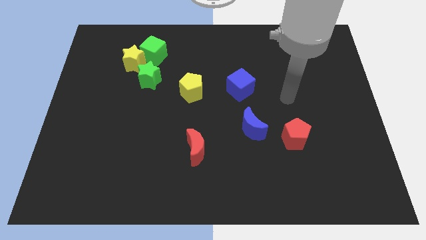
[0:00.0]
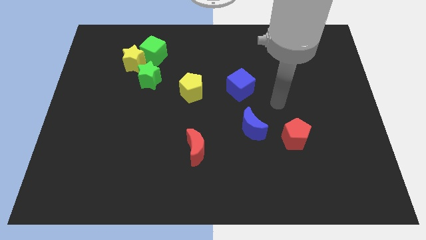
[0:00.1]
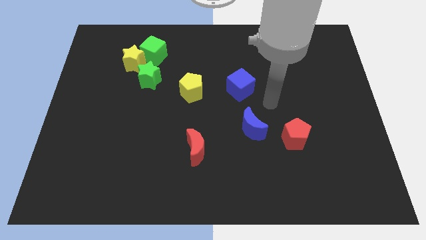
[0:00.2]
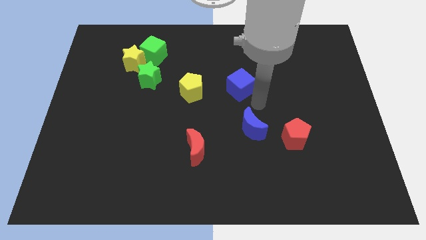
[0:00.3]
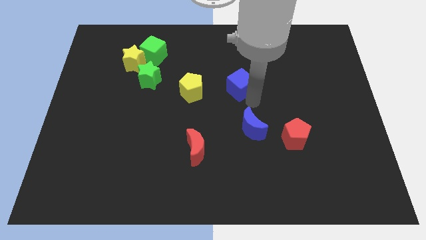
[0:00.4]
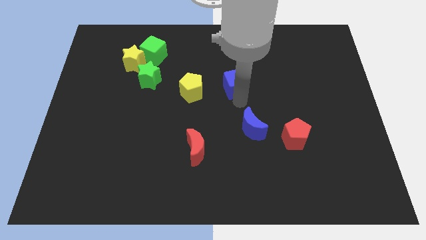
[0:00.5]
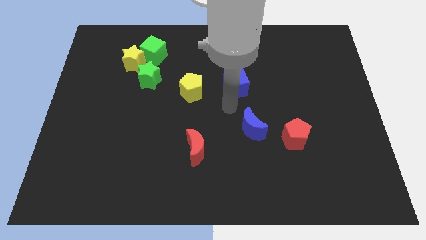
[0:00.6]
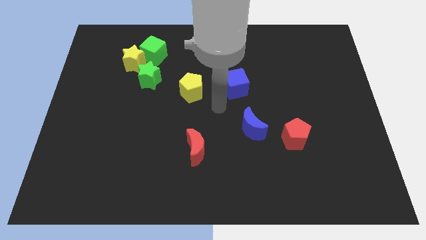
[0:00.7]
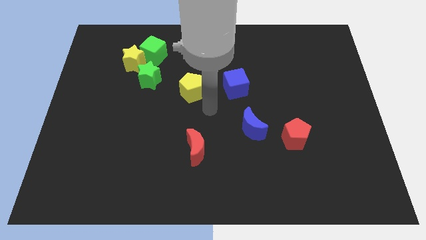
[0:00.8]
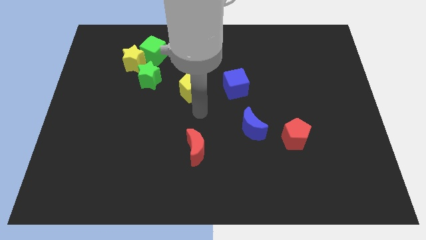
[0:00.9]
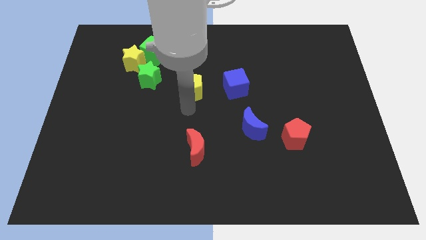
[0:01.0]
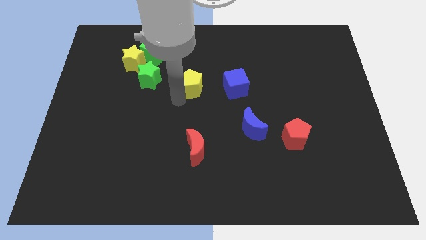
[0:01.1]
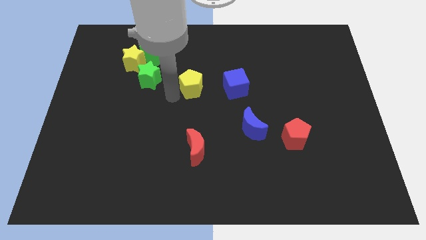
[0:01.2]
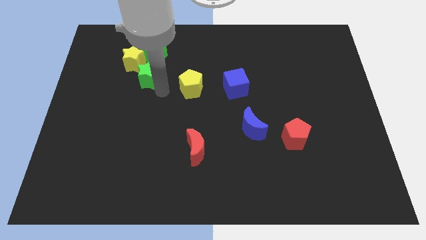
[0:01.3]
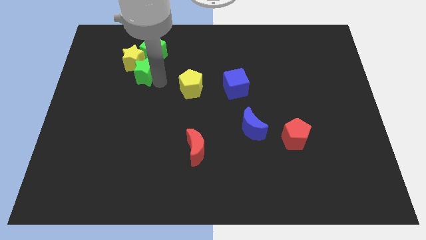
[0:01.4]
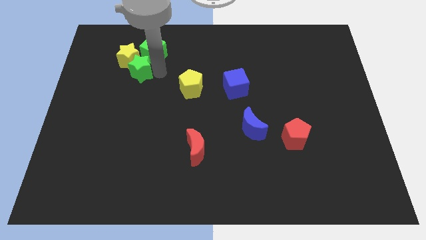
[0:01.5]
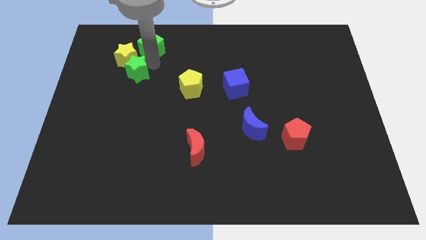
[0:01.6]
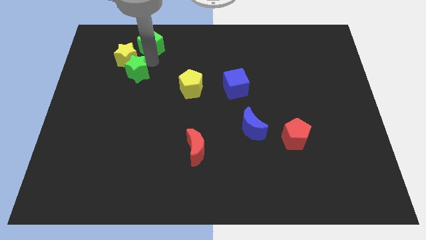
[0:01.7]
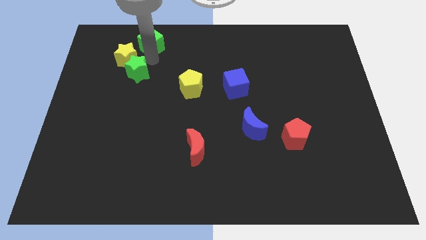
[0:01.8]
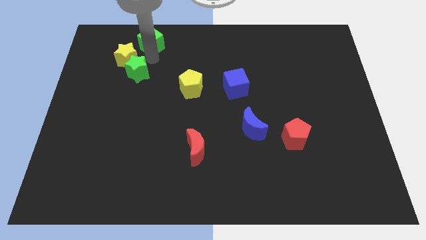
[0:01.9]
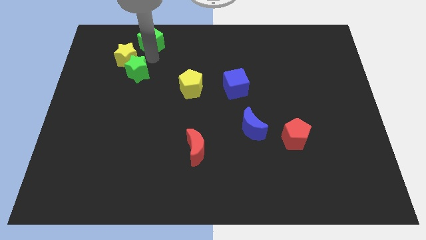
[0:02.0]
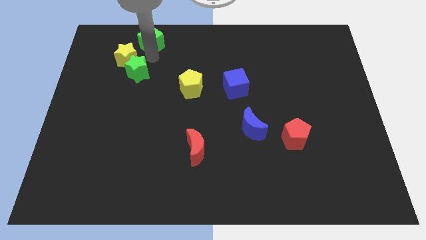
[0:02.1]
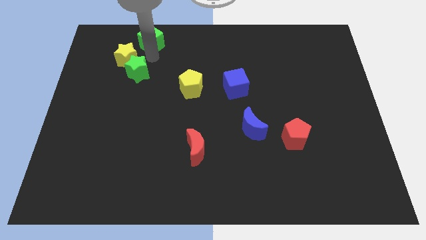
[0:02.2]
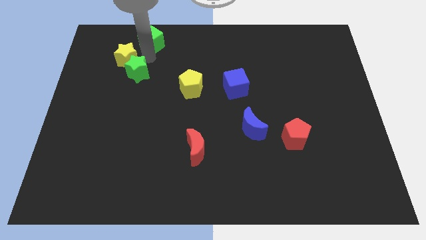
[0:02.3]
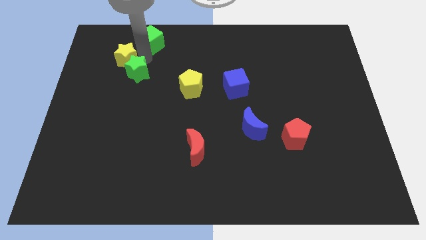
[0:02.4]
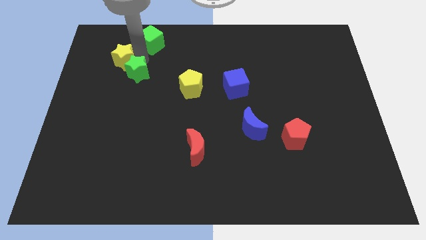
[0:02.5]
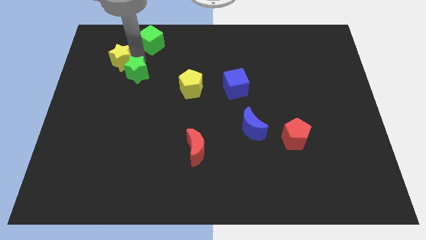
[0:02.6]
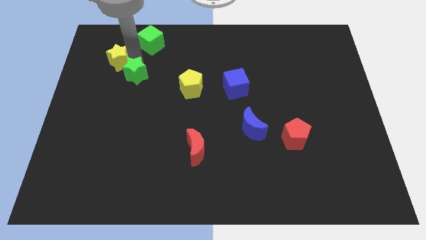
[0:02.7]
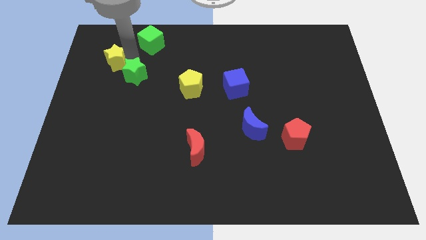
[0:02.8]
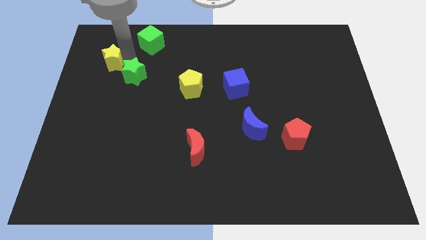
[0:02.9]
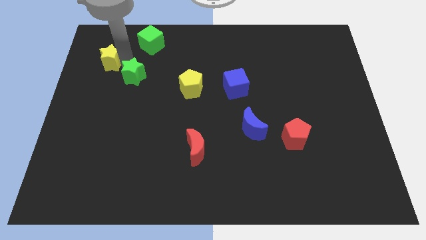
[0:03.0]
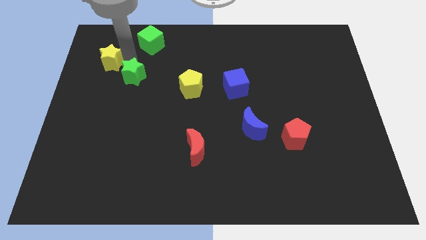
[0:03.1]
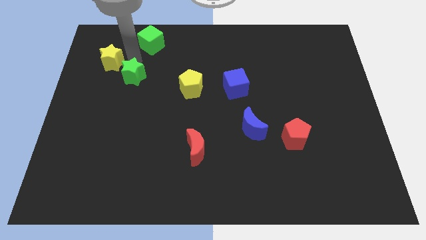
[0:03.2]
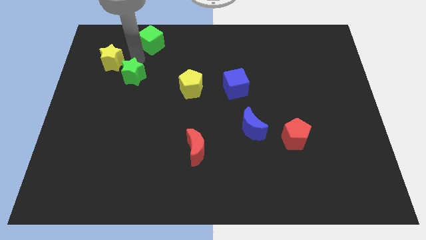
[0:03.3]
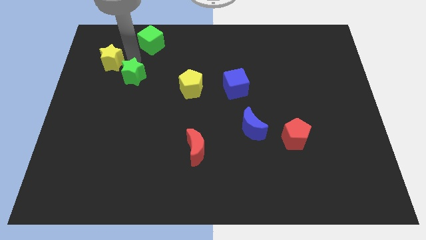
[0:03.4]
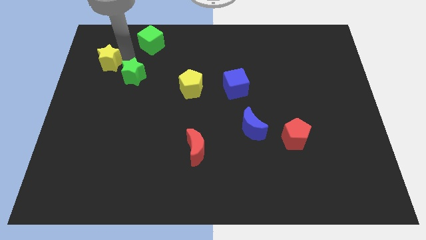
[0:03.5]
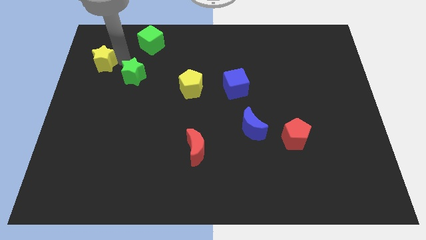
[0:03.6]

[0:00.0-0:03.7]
separate the yellow star from the green cube and green star

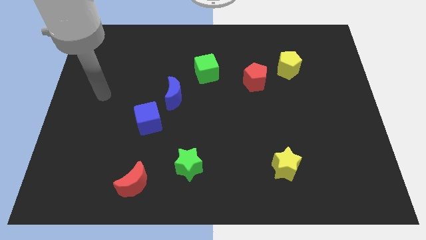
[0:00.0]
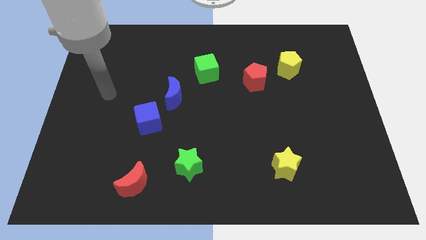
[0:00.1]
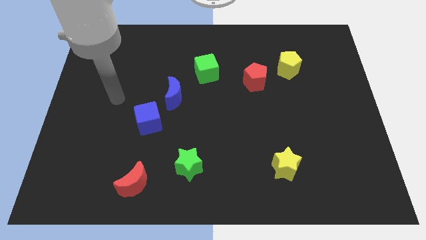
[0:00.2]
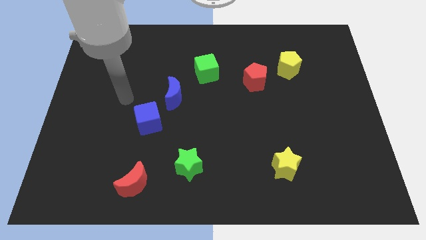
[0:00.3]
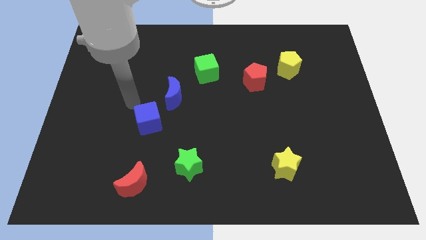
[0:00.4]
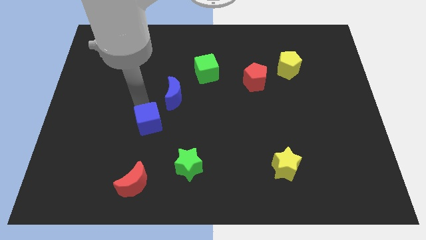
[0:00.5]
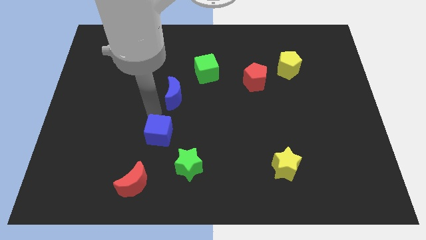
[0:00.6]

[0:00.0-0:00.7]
move the blue moon away from the blue cube

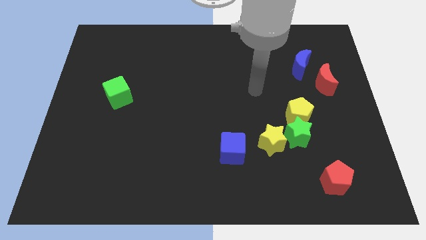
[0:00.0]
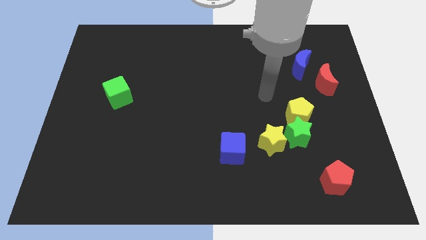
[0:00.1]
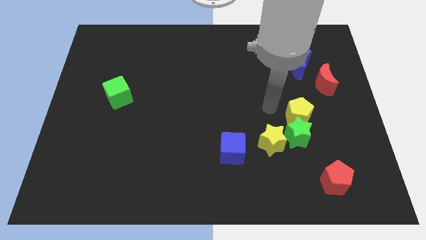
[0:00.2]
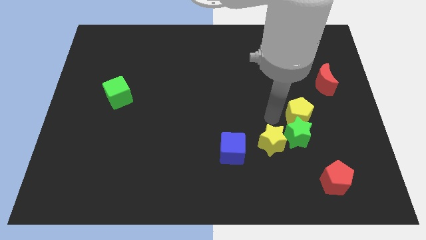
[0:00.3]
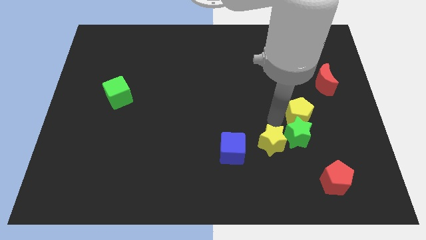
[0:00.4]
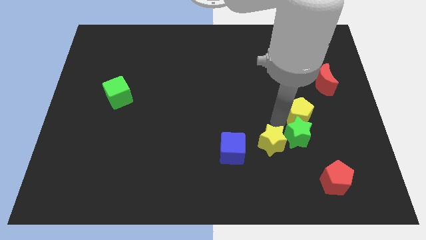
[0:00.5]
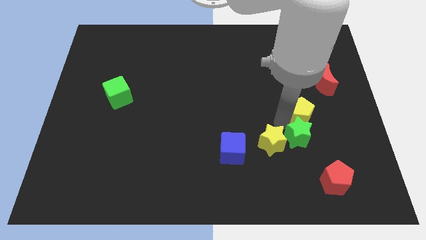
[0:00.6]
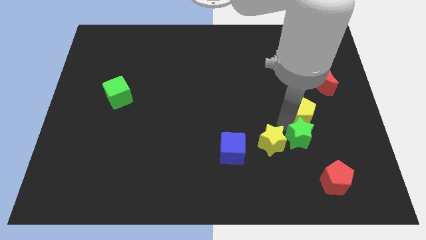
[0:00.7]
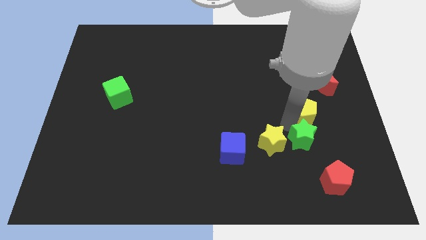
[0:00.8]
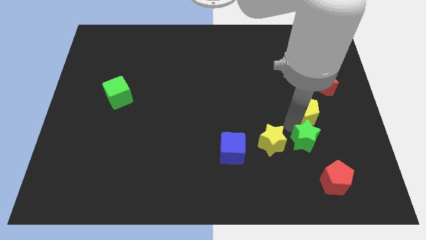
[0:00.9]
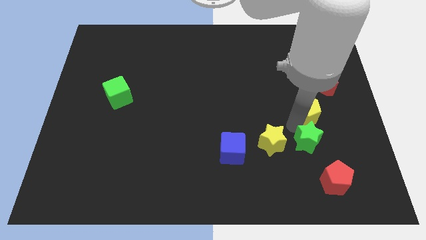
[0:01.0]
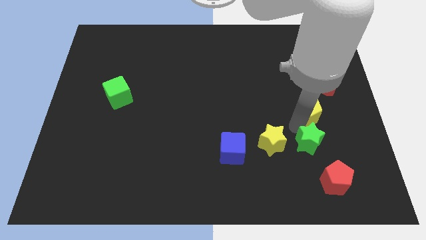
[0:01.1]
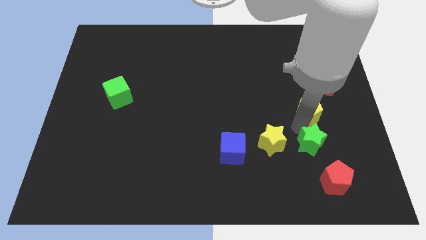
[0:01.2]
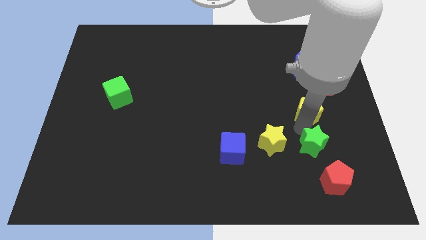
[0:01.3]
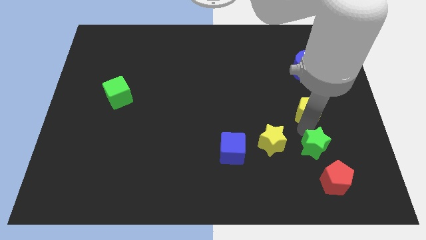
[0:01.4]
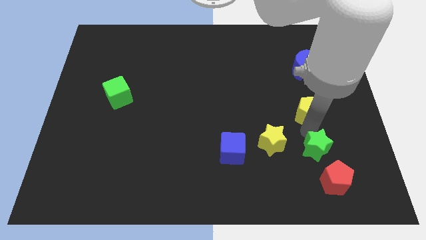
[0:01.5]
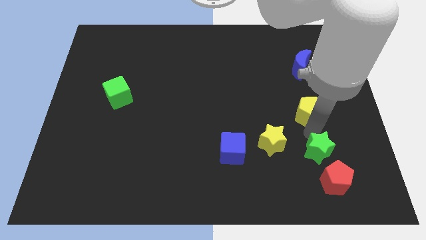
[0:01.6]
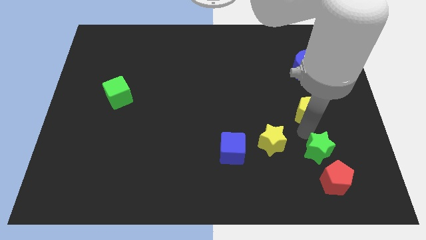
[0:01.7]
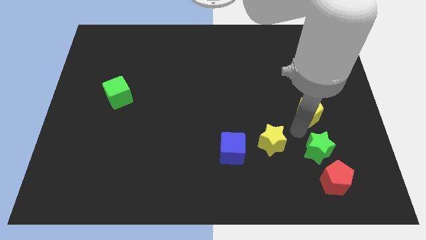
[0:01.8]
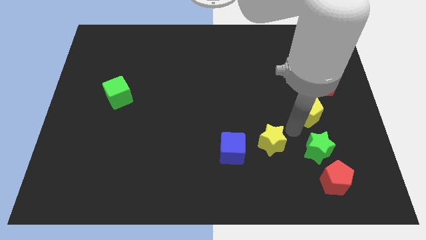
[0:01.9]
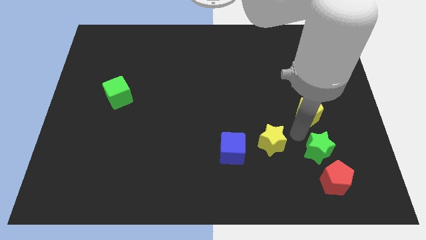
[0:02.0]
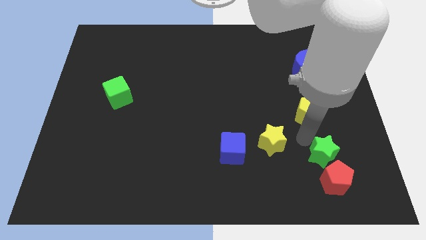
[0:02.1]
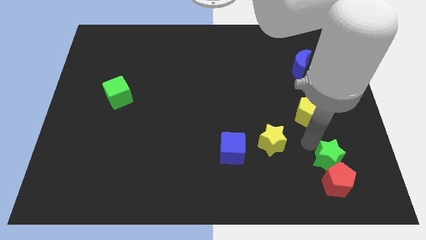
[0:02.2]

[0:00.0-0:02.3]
move the green star away from the yellow pentagon and yellow star

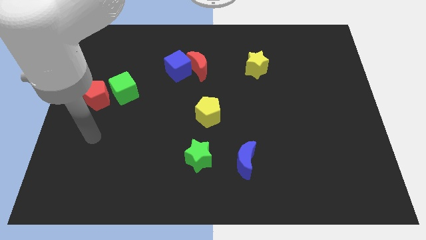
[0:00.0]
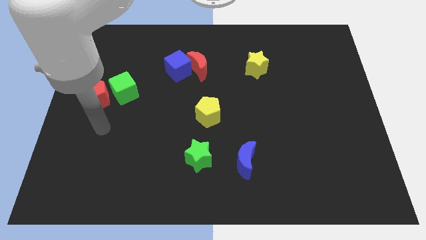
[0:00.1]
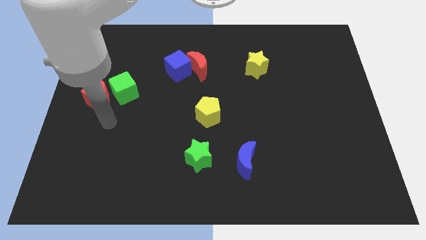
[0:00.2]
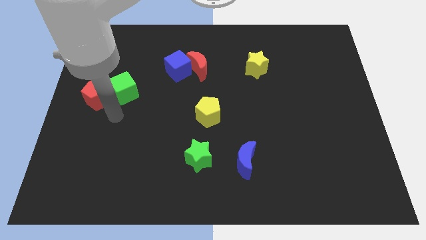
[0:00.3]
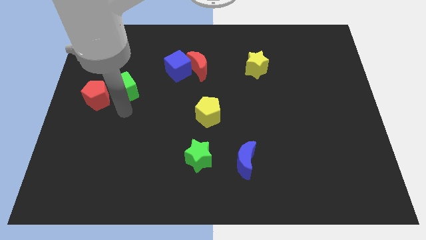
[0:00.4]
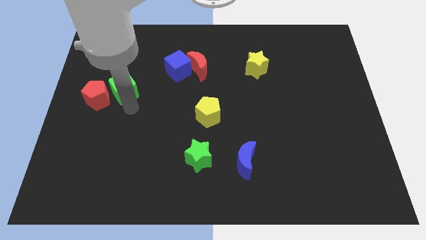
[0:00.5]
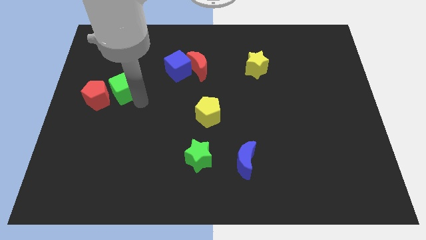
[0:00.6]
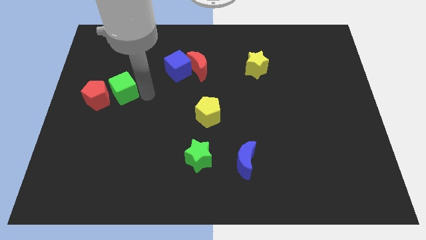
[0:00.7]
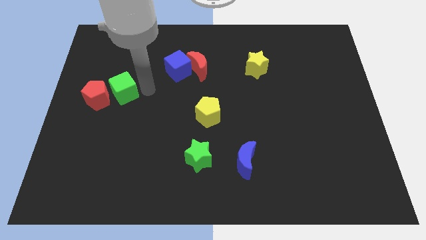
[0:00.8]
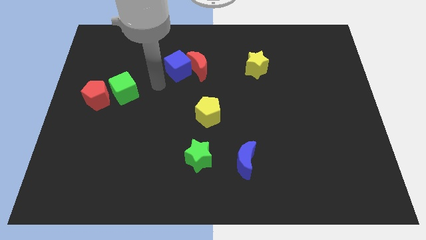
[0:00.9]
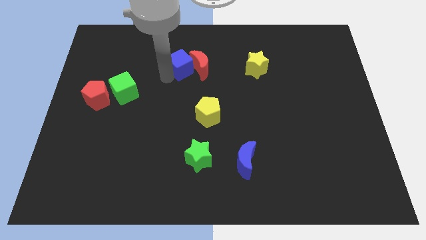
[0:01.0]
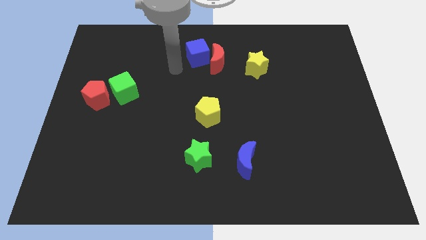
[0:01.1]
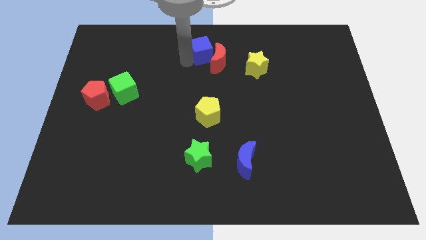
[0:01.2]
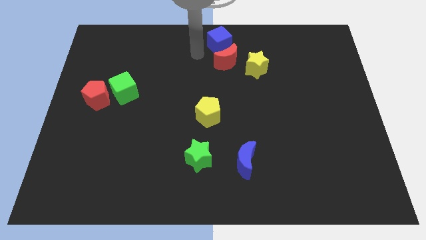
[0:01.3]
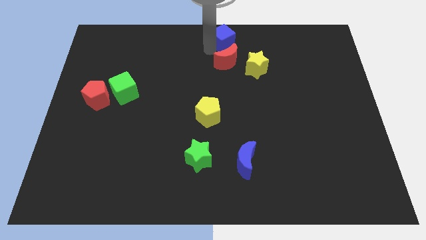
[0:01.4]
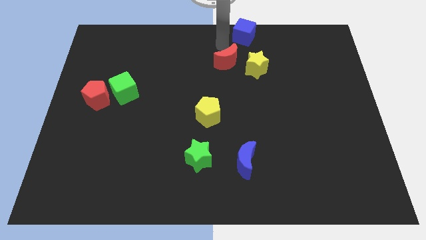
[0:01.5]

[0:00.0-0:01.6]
move the red moon away from the blue cube

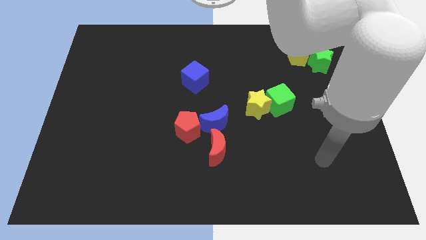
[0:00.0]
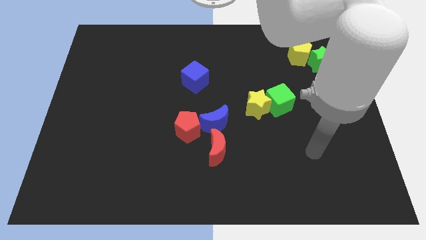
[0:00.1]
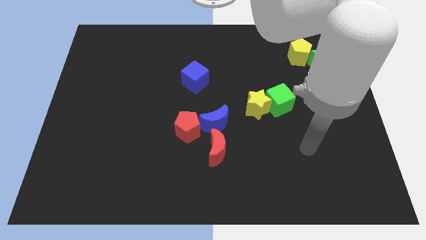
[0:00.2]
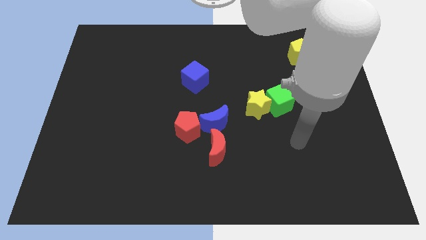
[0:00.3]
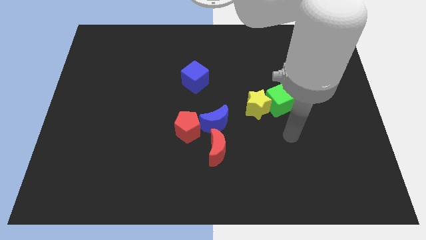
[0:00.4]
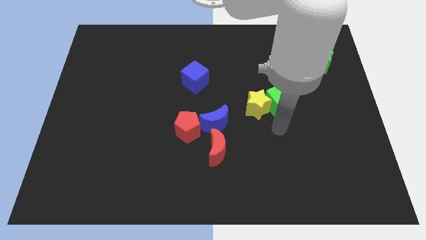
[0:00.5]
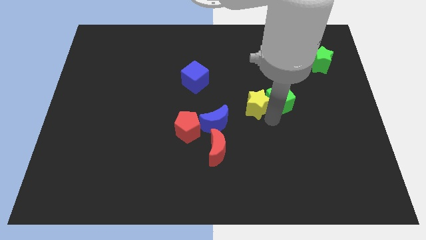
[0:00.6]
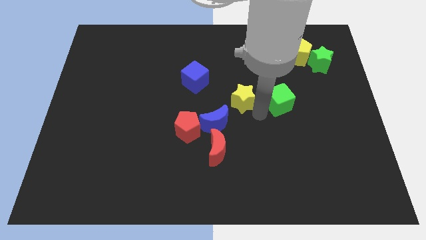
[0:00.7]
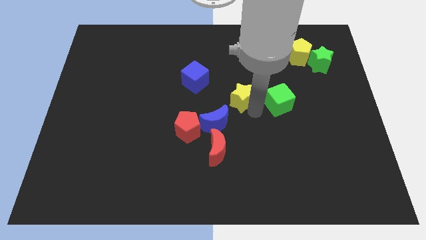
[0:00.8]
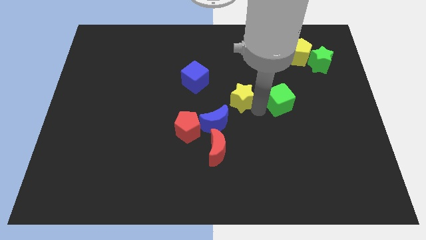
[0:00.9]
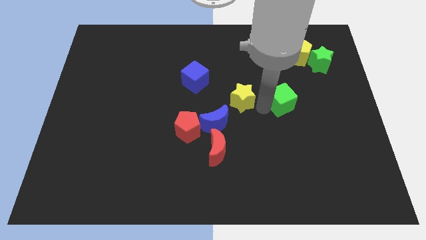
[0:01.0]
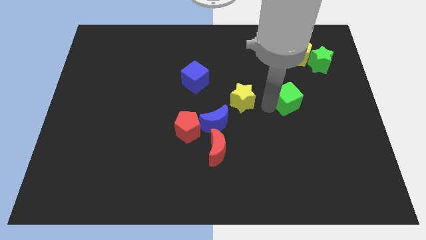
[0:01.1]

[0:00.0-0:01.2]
separate the green cube from the yellow star
